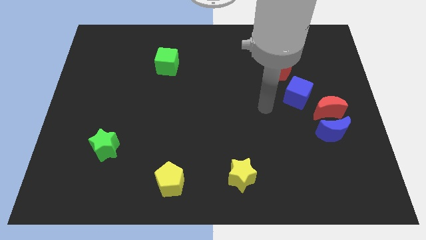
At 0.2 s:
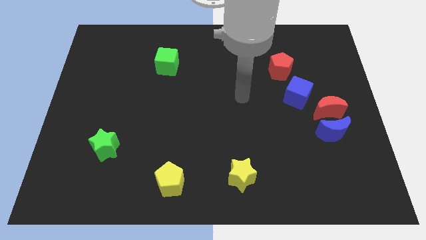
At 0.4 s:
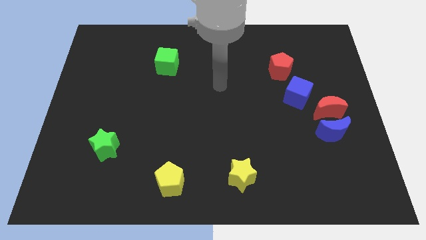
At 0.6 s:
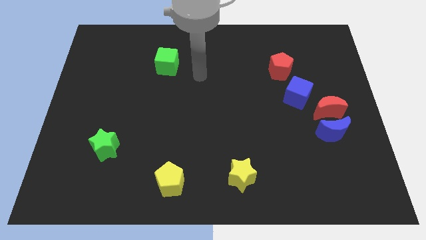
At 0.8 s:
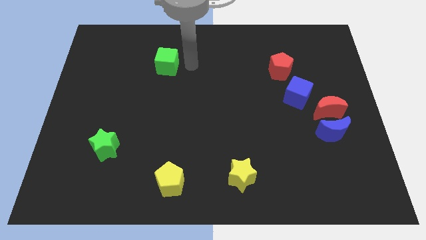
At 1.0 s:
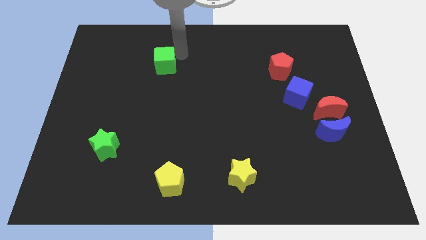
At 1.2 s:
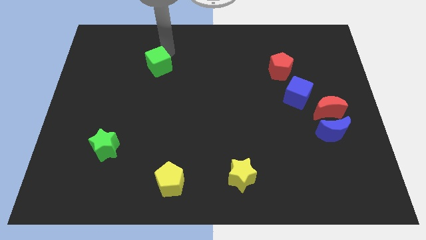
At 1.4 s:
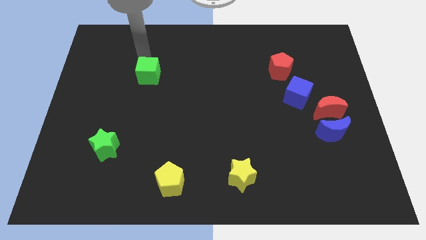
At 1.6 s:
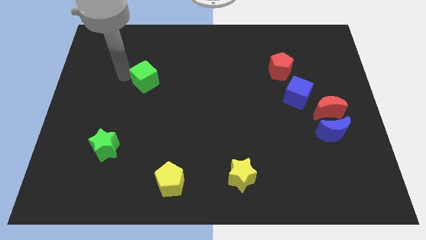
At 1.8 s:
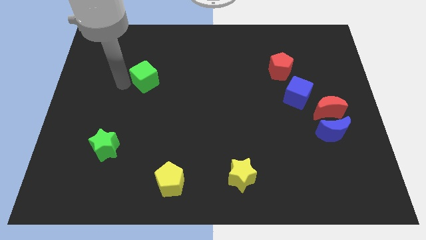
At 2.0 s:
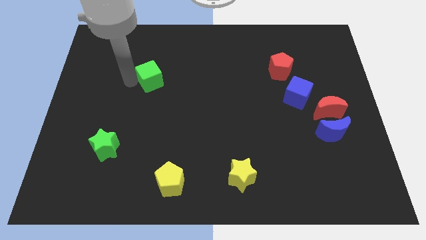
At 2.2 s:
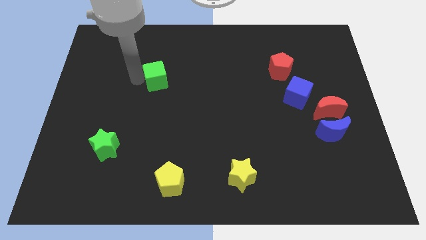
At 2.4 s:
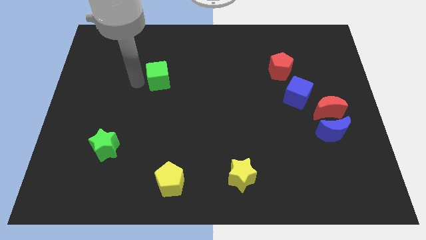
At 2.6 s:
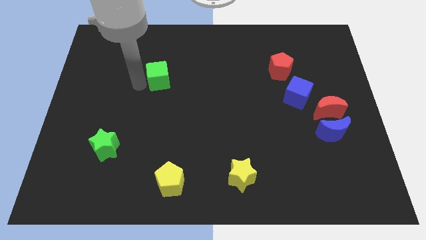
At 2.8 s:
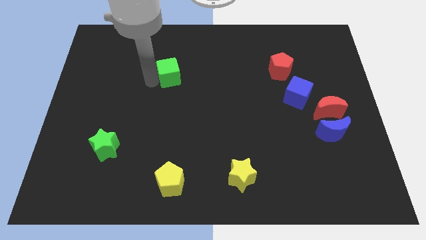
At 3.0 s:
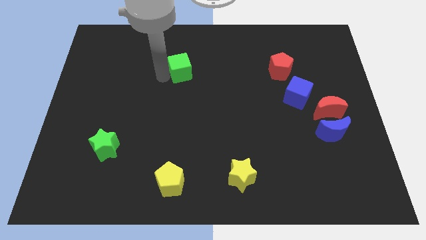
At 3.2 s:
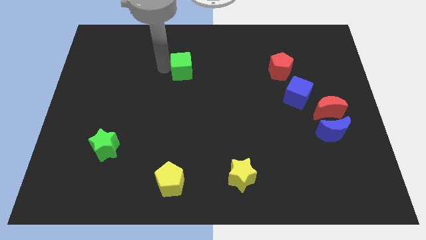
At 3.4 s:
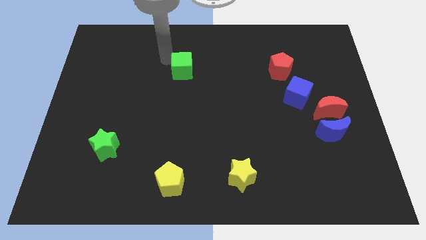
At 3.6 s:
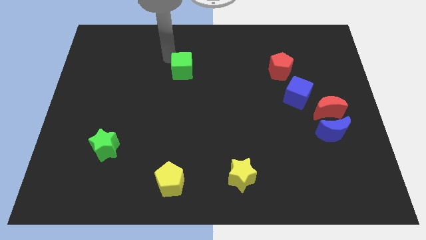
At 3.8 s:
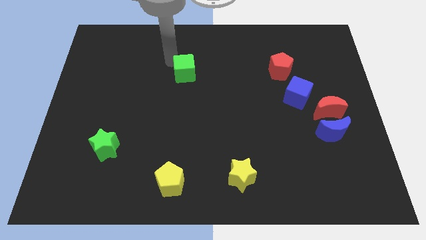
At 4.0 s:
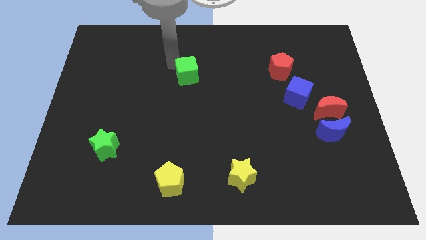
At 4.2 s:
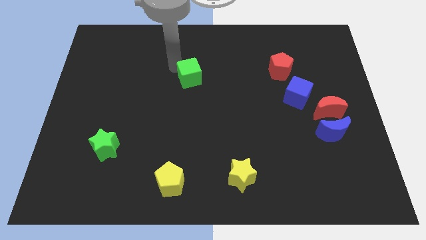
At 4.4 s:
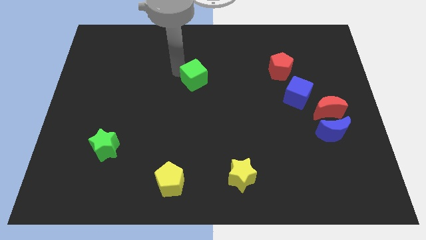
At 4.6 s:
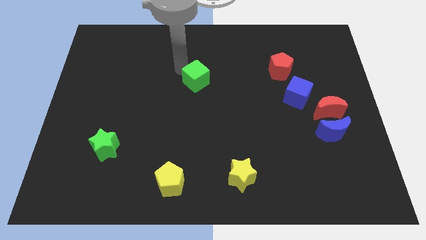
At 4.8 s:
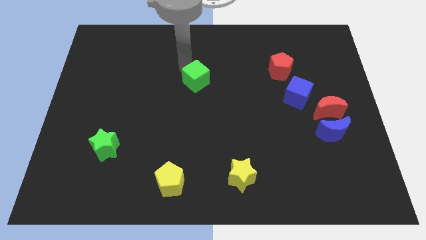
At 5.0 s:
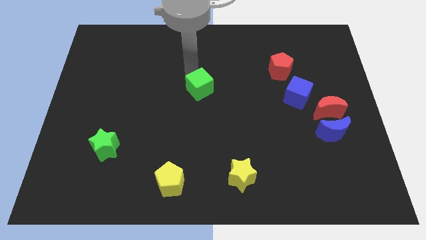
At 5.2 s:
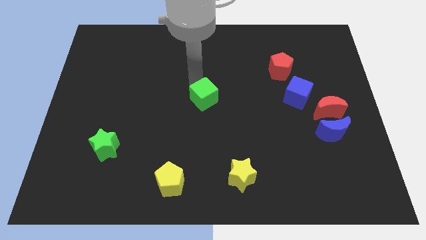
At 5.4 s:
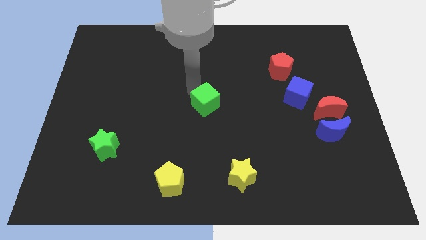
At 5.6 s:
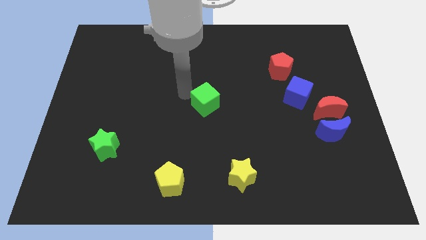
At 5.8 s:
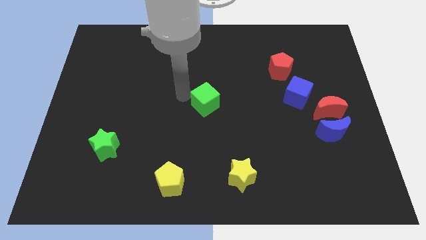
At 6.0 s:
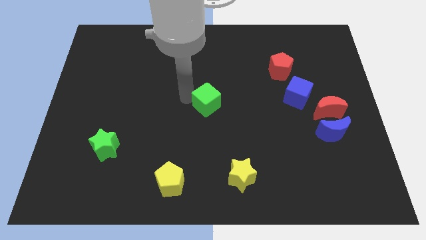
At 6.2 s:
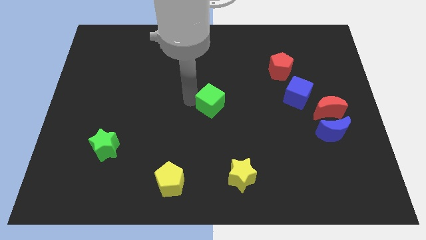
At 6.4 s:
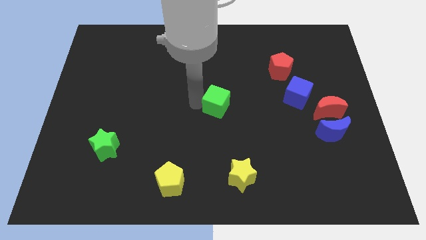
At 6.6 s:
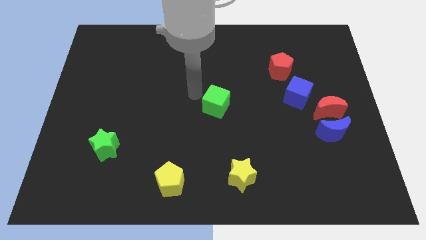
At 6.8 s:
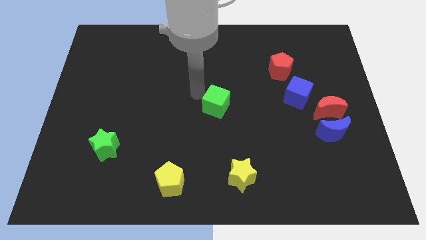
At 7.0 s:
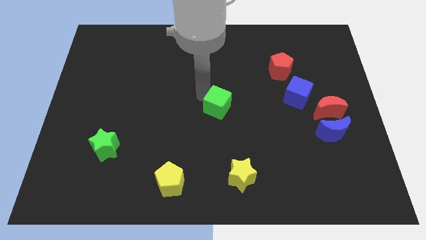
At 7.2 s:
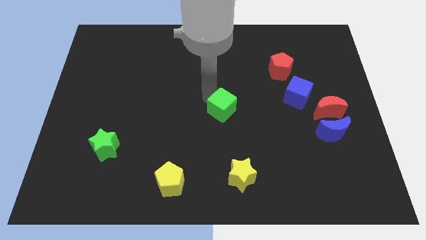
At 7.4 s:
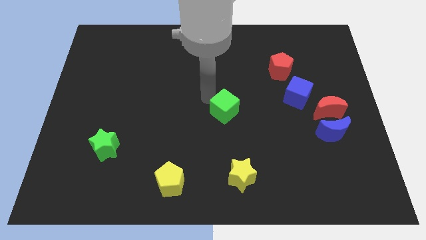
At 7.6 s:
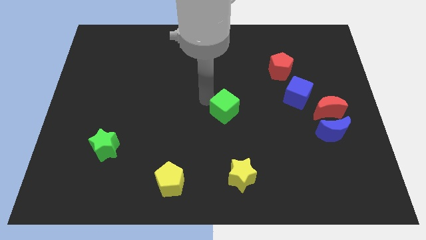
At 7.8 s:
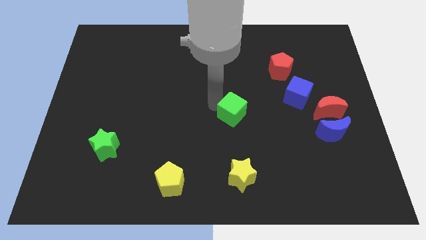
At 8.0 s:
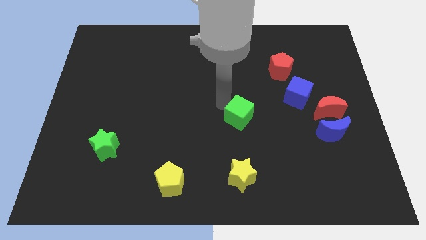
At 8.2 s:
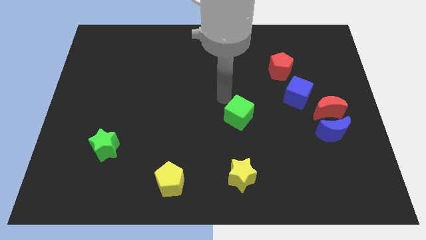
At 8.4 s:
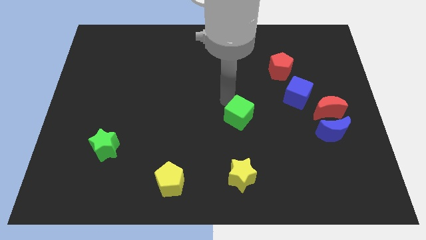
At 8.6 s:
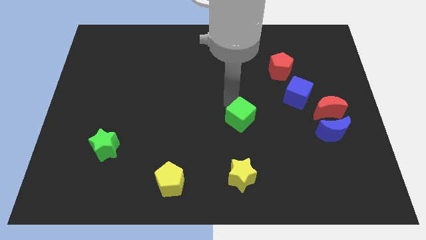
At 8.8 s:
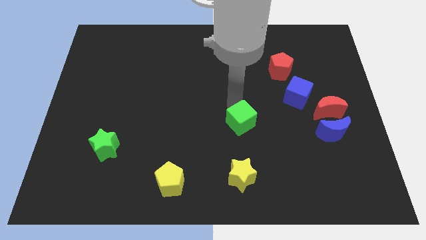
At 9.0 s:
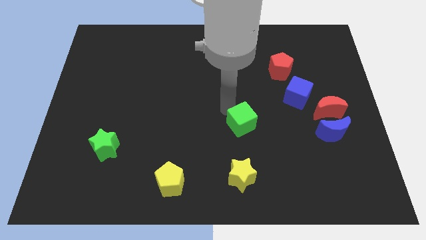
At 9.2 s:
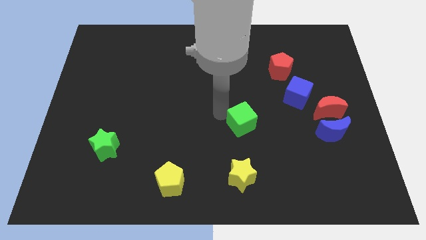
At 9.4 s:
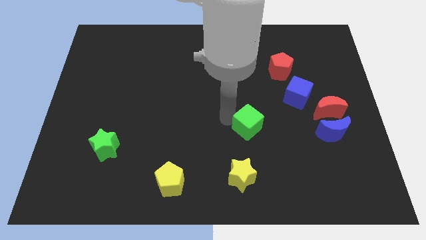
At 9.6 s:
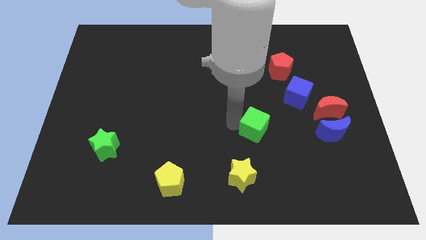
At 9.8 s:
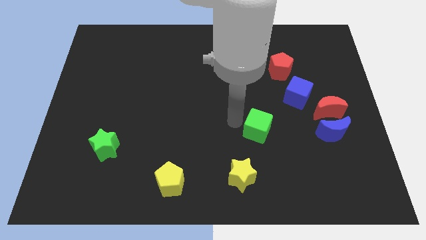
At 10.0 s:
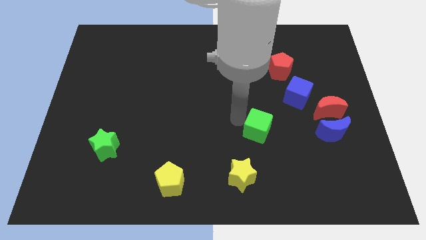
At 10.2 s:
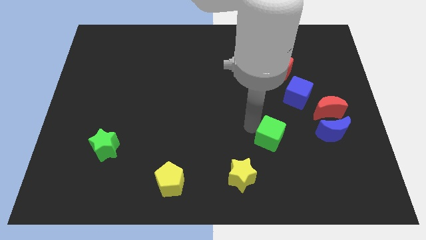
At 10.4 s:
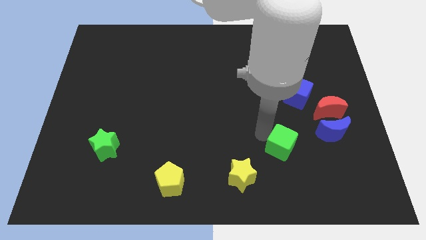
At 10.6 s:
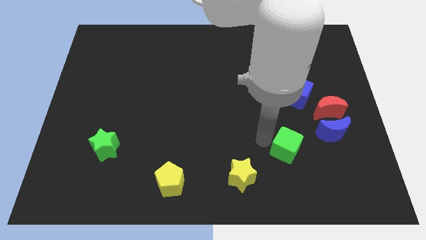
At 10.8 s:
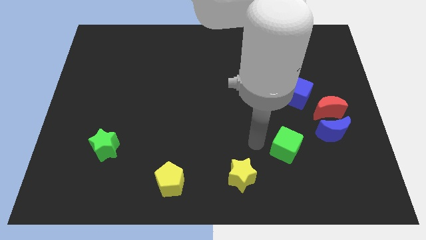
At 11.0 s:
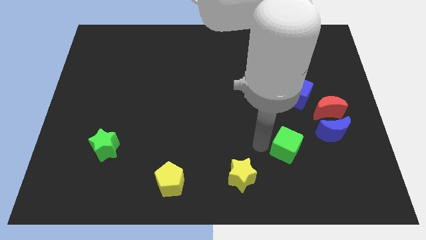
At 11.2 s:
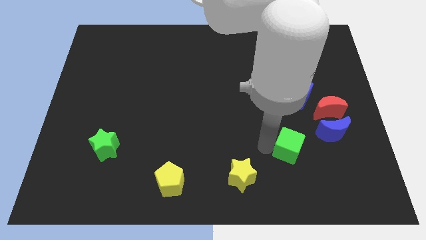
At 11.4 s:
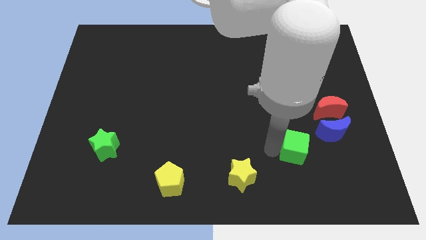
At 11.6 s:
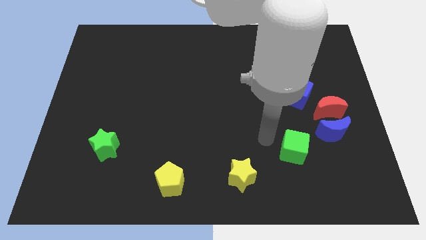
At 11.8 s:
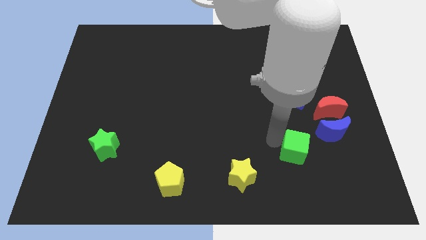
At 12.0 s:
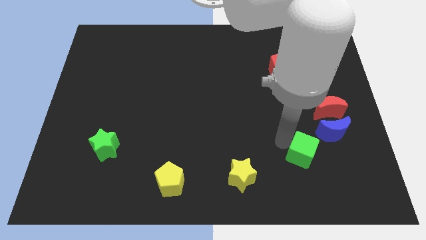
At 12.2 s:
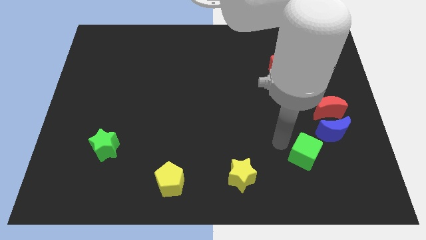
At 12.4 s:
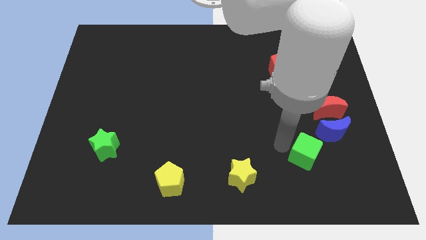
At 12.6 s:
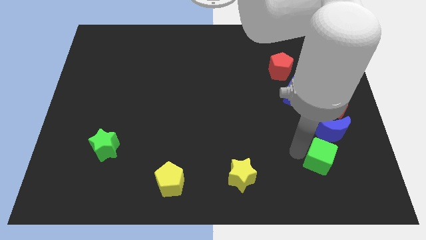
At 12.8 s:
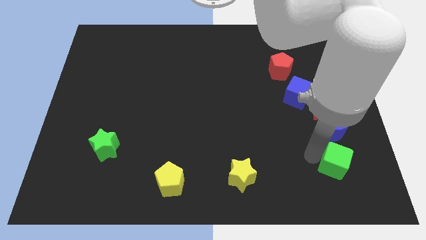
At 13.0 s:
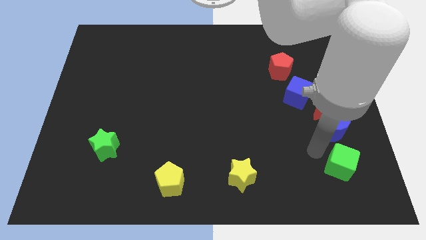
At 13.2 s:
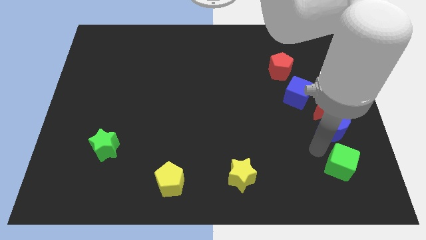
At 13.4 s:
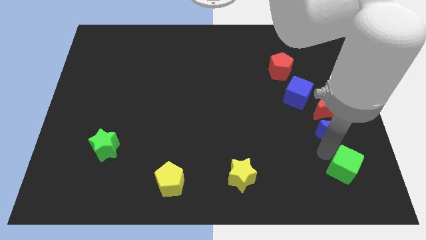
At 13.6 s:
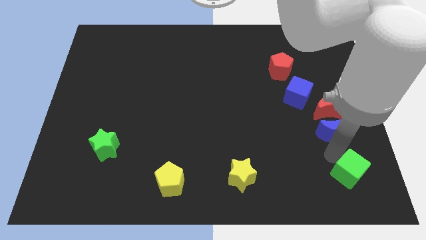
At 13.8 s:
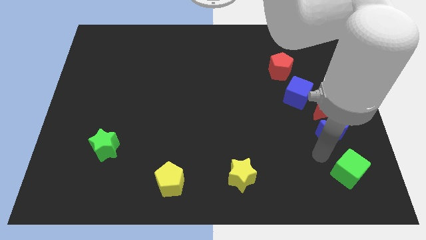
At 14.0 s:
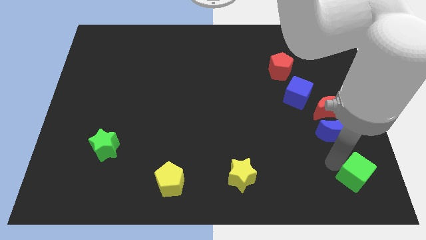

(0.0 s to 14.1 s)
slide the green cube to the lower right corner
